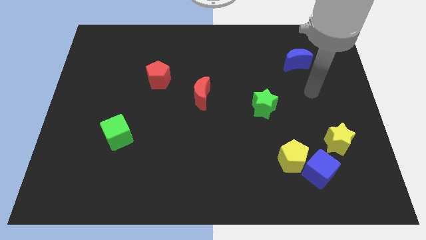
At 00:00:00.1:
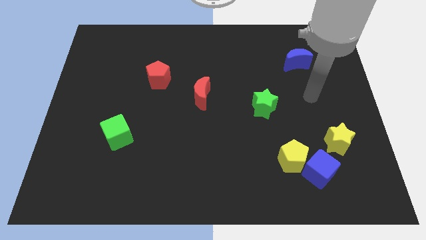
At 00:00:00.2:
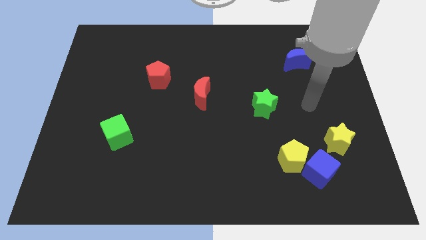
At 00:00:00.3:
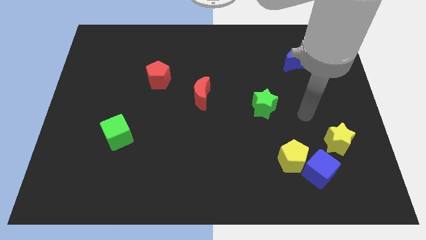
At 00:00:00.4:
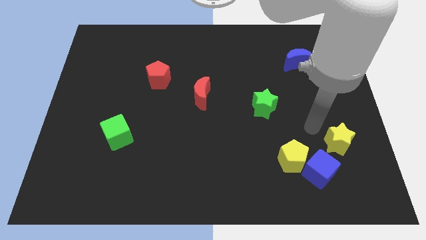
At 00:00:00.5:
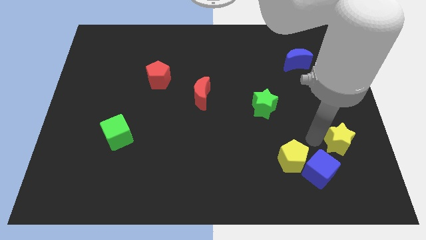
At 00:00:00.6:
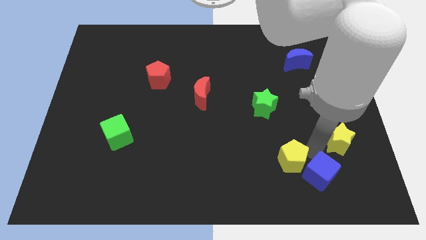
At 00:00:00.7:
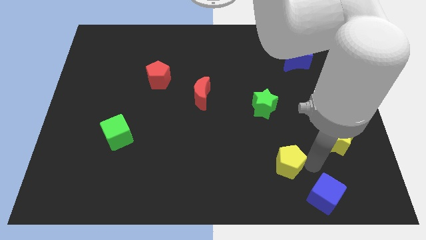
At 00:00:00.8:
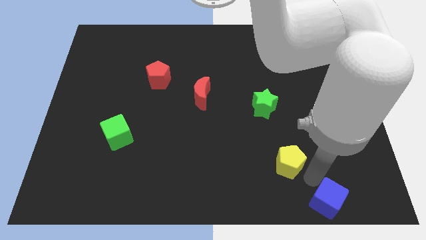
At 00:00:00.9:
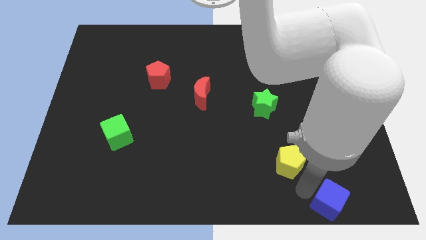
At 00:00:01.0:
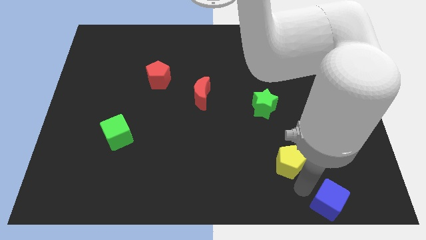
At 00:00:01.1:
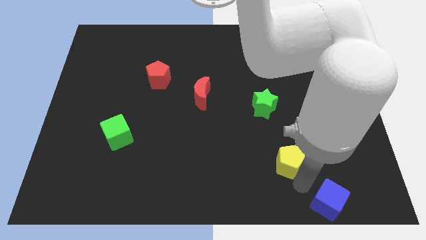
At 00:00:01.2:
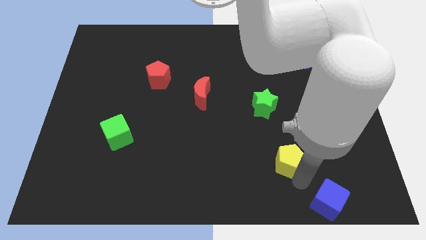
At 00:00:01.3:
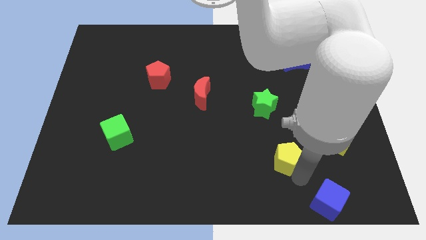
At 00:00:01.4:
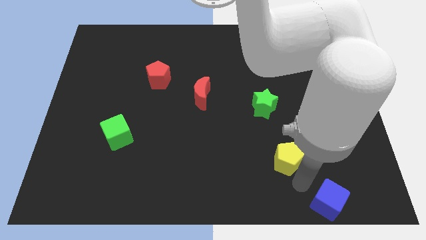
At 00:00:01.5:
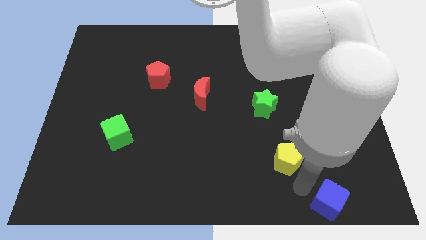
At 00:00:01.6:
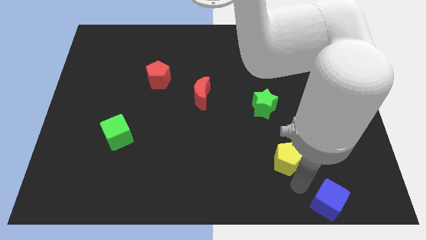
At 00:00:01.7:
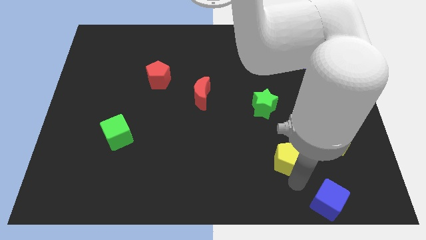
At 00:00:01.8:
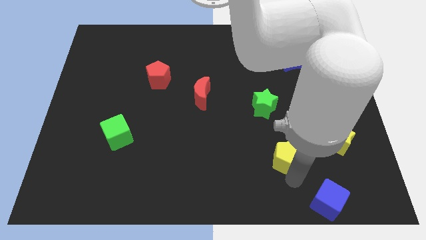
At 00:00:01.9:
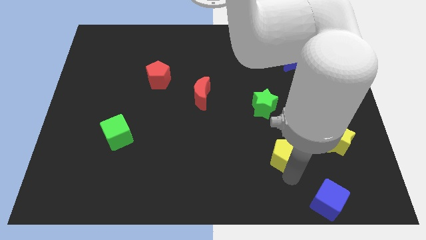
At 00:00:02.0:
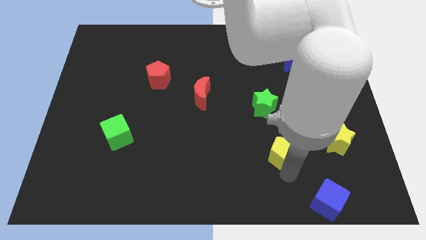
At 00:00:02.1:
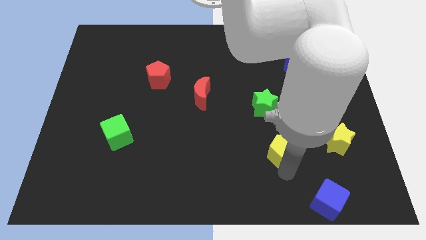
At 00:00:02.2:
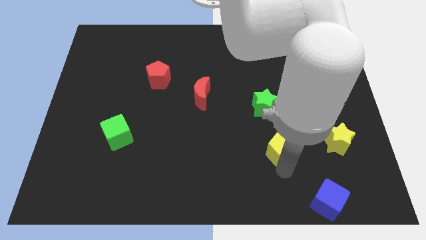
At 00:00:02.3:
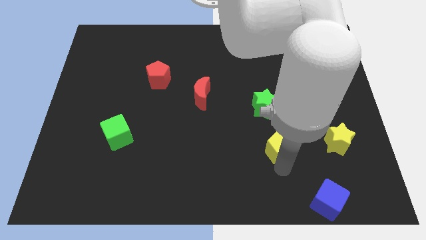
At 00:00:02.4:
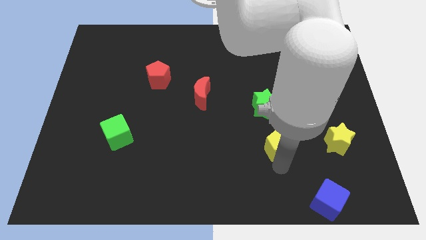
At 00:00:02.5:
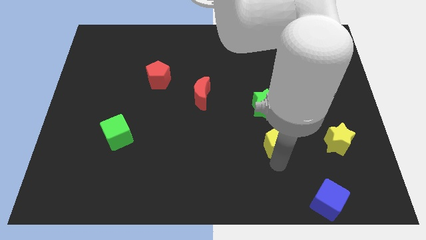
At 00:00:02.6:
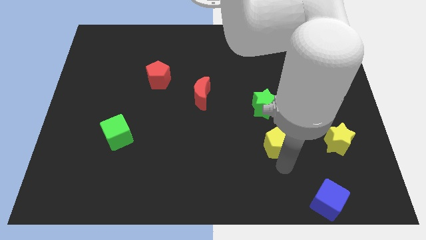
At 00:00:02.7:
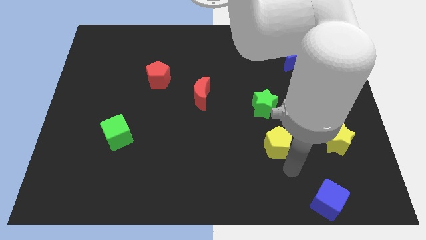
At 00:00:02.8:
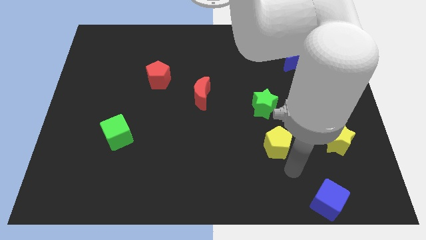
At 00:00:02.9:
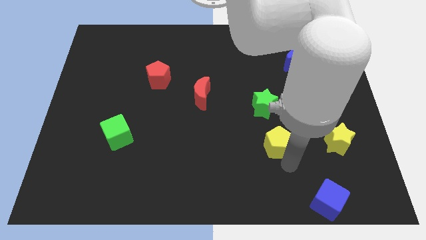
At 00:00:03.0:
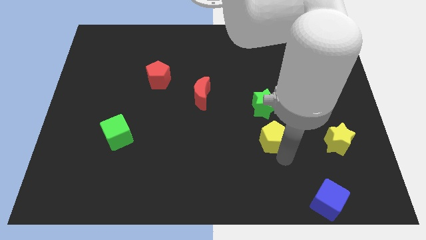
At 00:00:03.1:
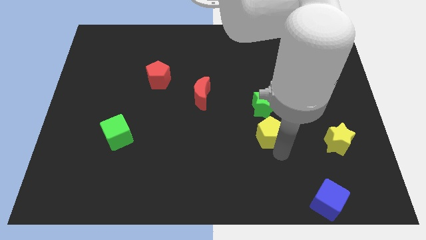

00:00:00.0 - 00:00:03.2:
slide the yellow pentagon up and then to the left a bit

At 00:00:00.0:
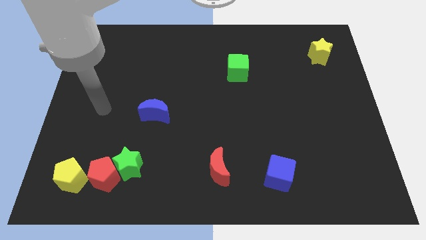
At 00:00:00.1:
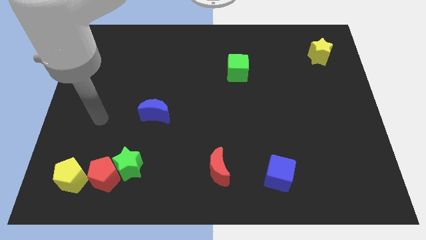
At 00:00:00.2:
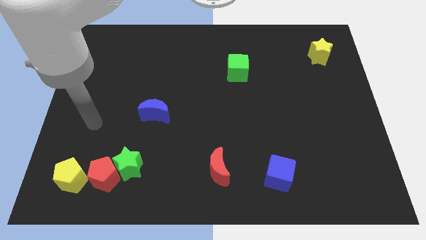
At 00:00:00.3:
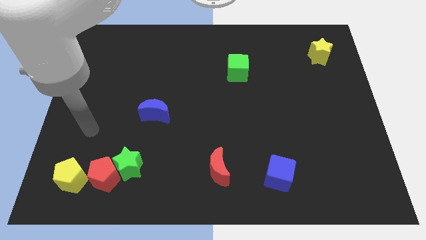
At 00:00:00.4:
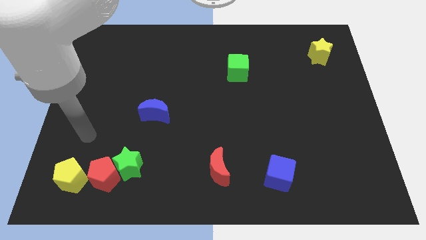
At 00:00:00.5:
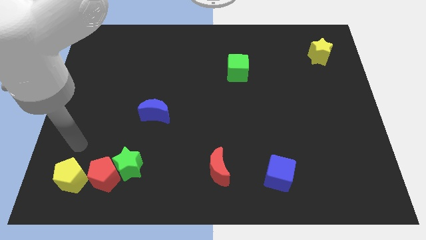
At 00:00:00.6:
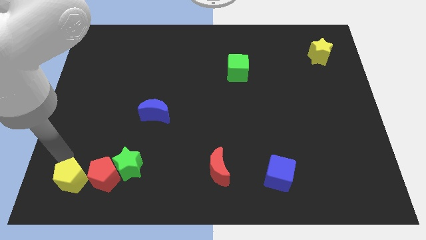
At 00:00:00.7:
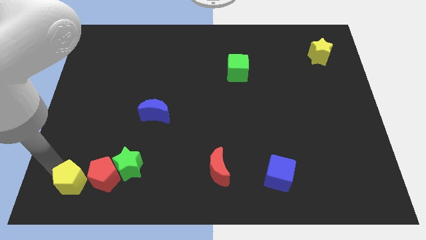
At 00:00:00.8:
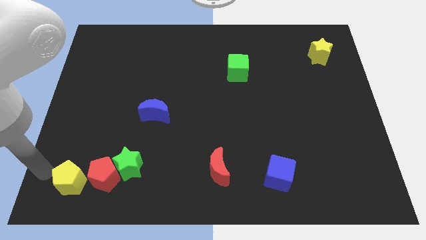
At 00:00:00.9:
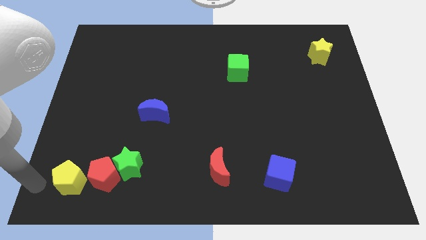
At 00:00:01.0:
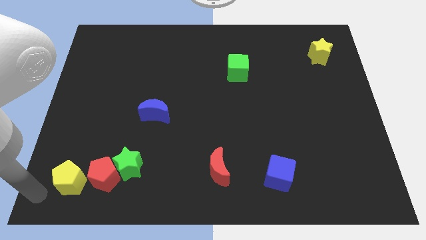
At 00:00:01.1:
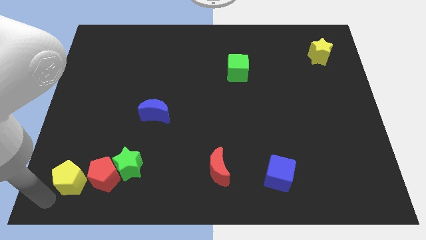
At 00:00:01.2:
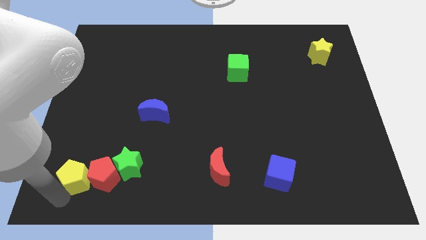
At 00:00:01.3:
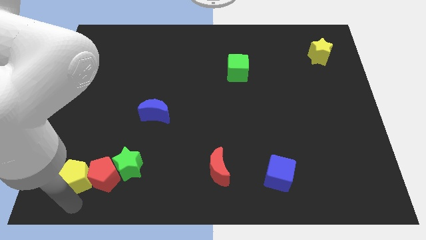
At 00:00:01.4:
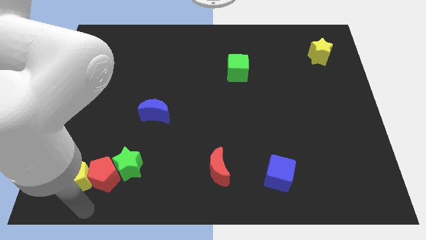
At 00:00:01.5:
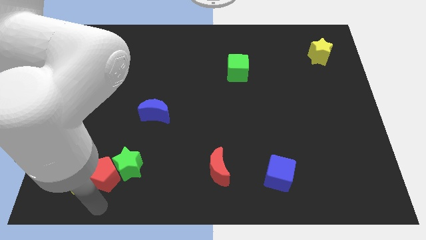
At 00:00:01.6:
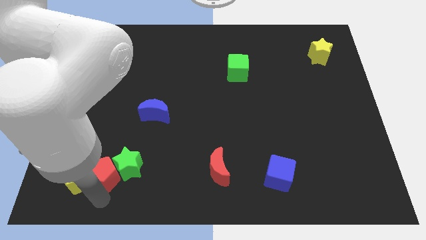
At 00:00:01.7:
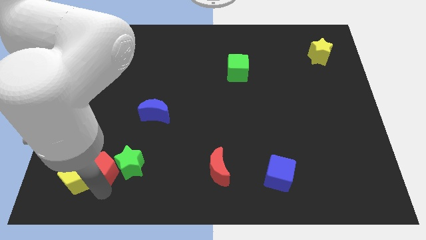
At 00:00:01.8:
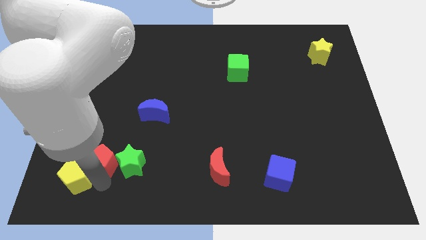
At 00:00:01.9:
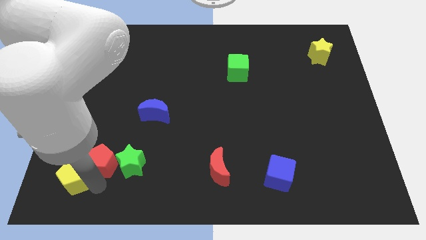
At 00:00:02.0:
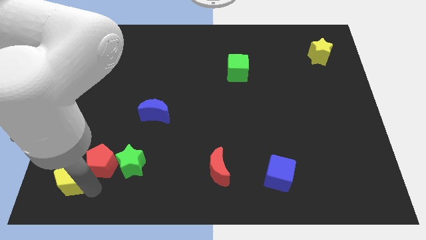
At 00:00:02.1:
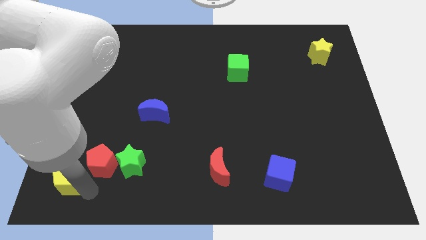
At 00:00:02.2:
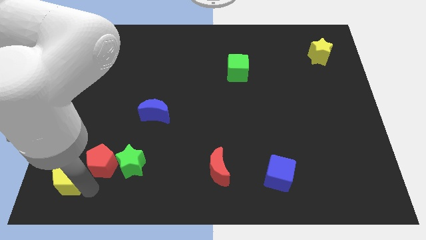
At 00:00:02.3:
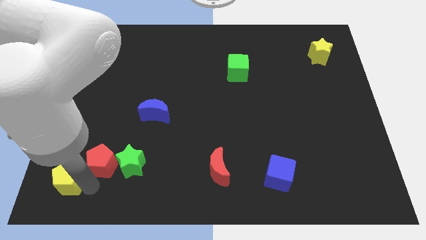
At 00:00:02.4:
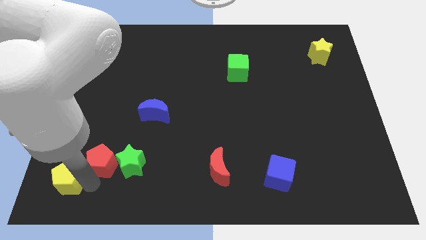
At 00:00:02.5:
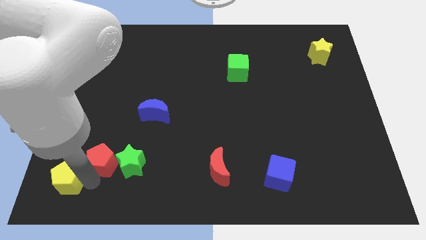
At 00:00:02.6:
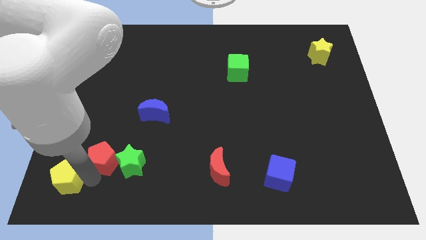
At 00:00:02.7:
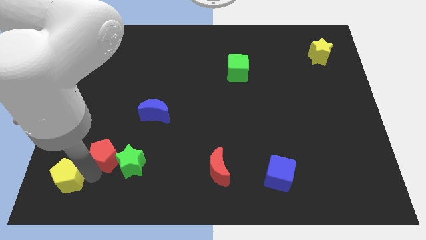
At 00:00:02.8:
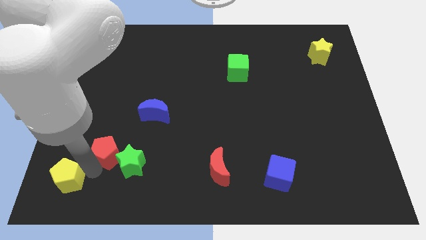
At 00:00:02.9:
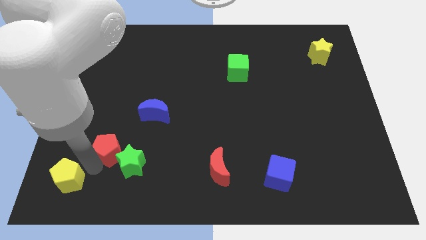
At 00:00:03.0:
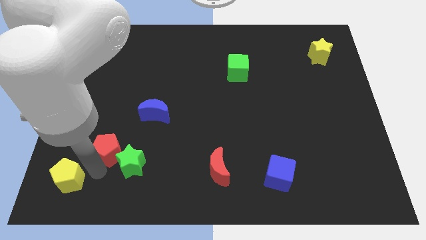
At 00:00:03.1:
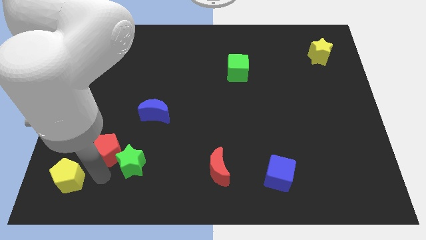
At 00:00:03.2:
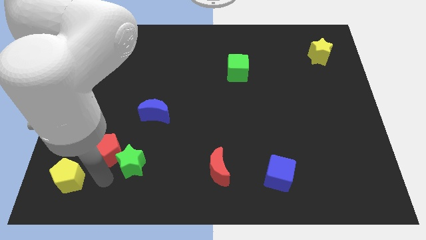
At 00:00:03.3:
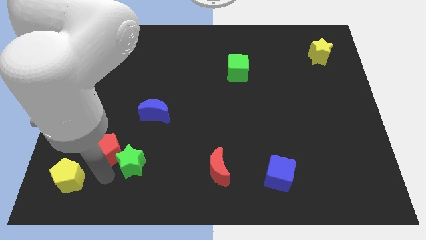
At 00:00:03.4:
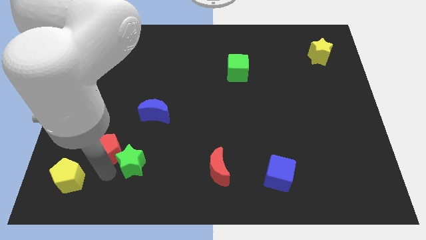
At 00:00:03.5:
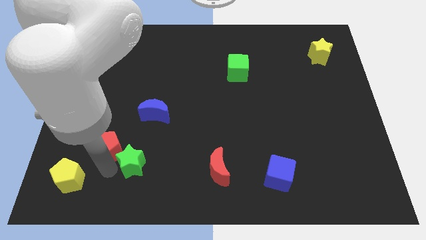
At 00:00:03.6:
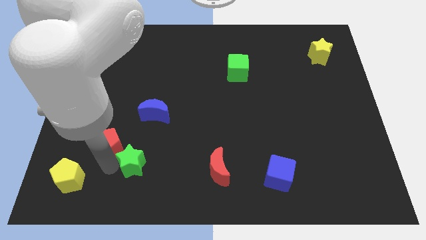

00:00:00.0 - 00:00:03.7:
slightly slide the red pentagon up

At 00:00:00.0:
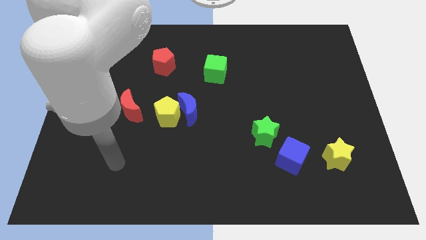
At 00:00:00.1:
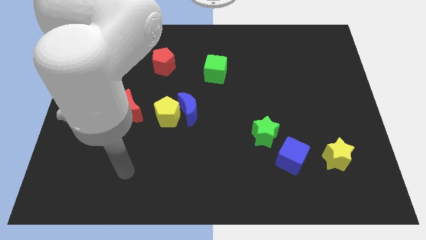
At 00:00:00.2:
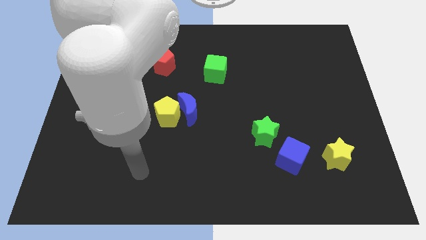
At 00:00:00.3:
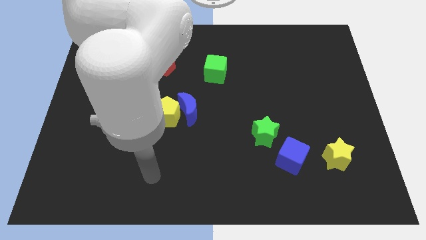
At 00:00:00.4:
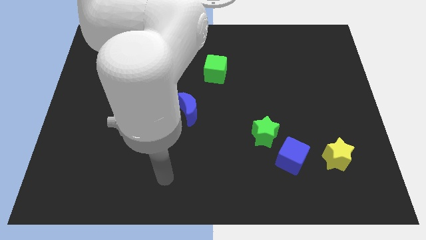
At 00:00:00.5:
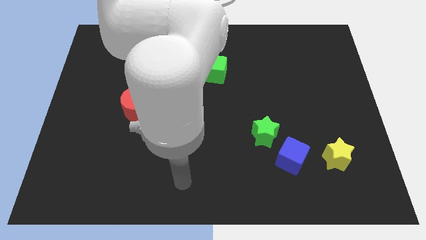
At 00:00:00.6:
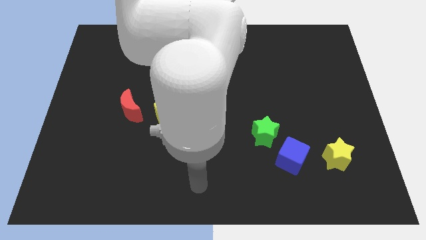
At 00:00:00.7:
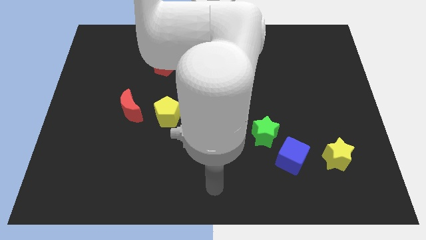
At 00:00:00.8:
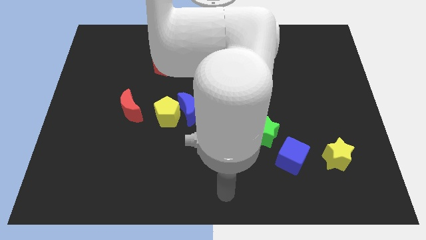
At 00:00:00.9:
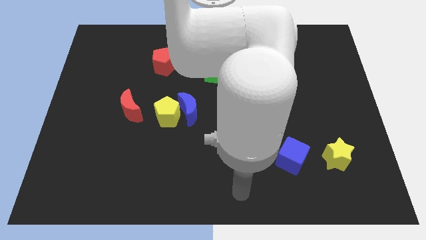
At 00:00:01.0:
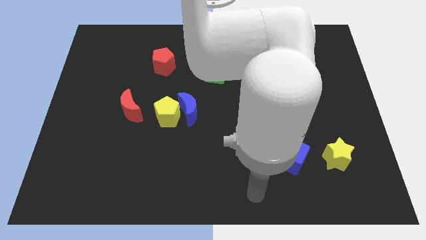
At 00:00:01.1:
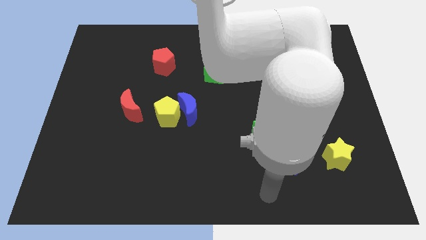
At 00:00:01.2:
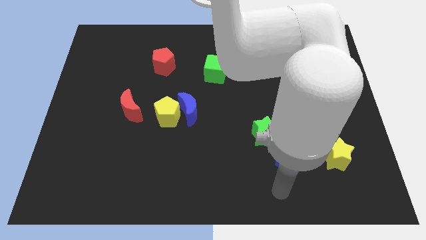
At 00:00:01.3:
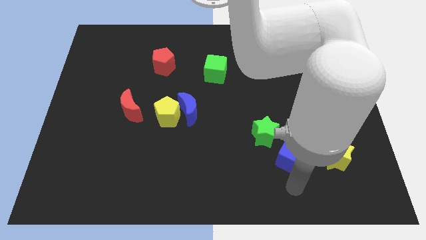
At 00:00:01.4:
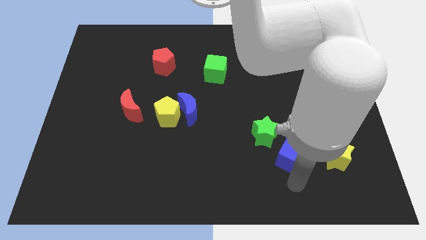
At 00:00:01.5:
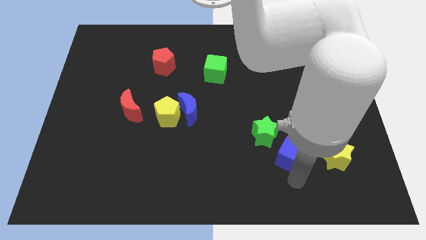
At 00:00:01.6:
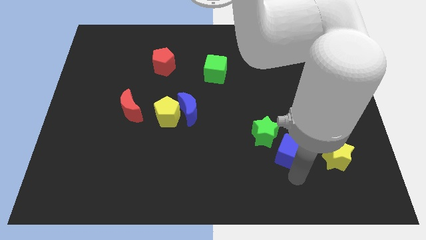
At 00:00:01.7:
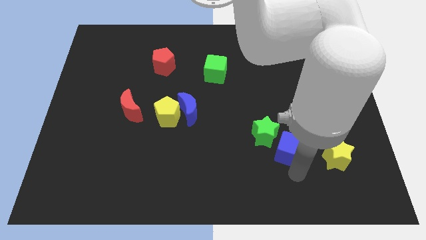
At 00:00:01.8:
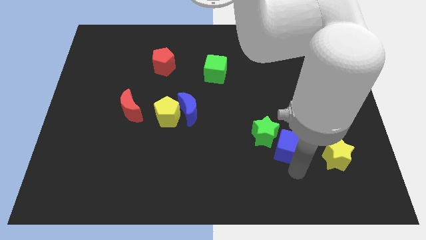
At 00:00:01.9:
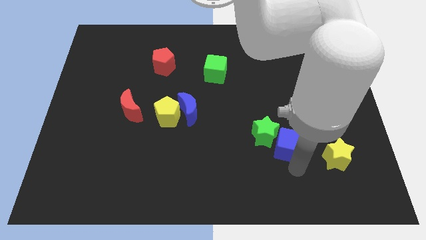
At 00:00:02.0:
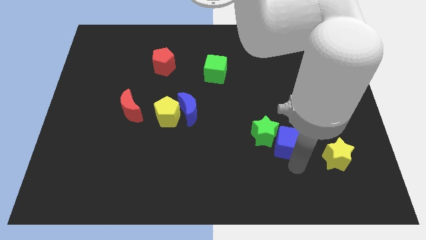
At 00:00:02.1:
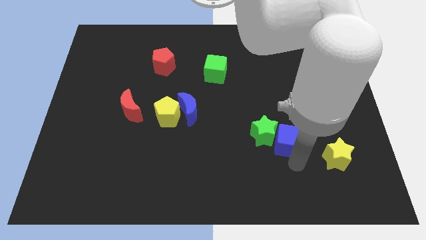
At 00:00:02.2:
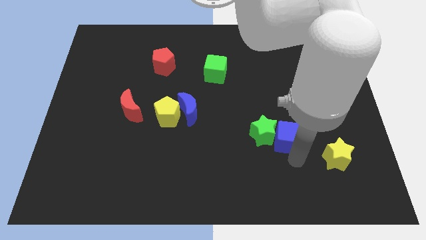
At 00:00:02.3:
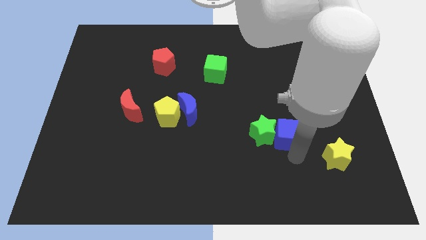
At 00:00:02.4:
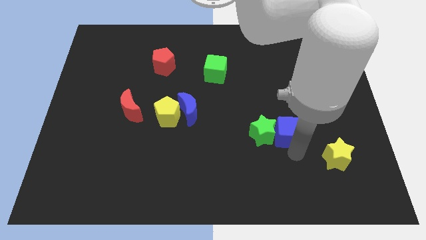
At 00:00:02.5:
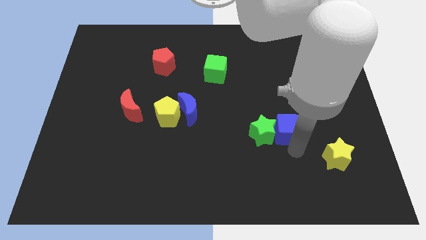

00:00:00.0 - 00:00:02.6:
push the blue cube a little bit upwards
